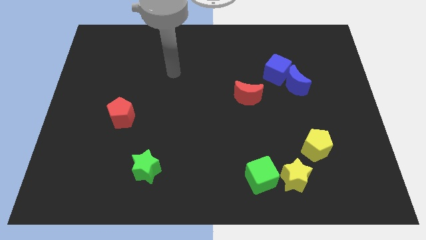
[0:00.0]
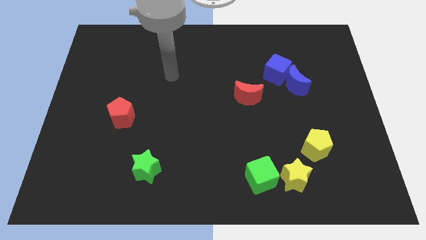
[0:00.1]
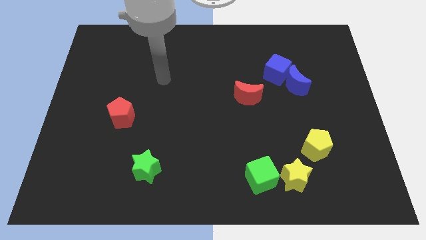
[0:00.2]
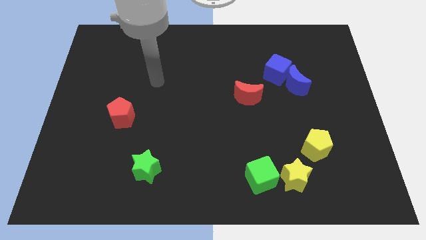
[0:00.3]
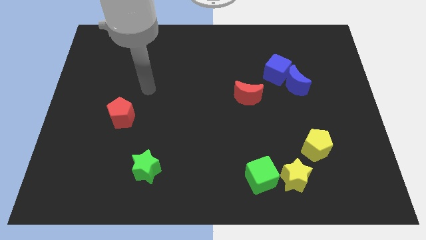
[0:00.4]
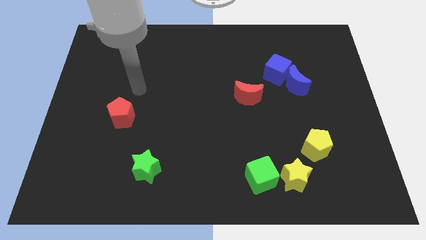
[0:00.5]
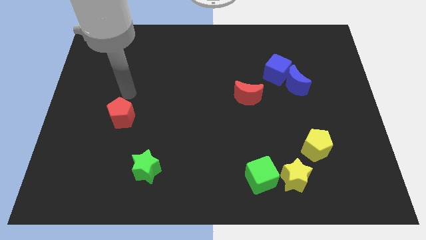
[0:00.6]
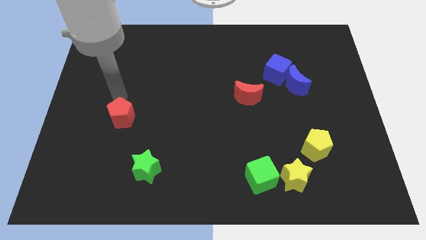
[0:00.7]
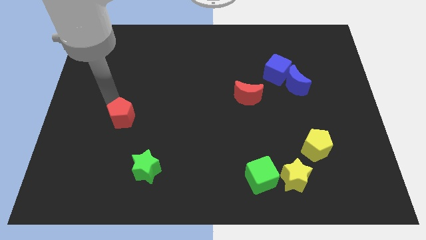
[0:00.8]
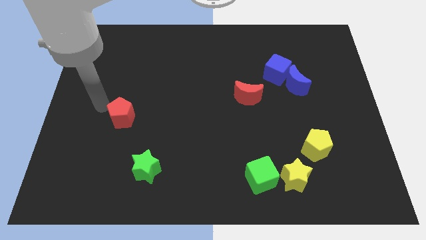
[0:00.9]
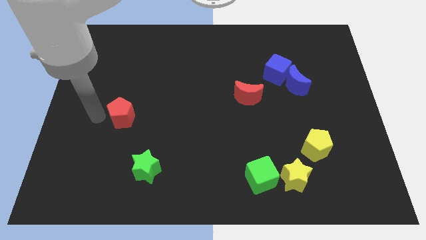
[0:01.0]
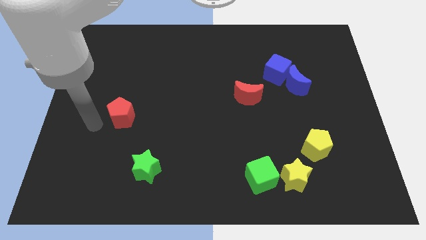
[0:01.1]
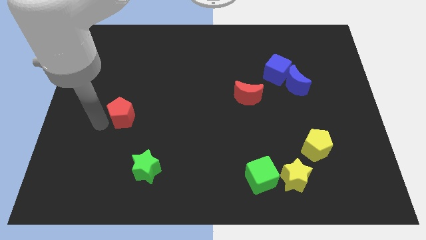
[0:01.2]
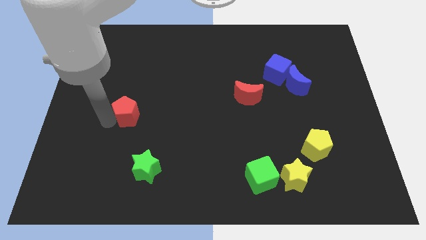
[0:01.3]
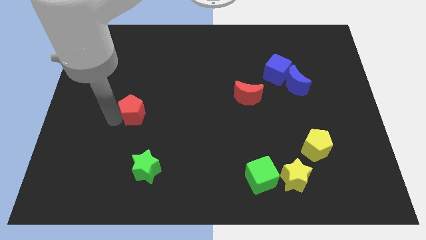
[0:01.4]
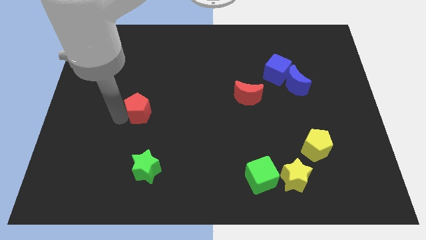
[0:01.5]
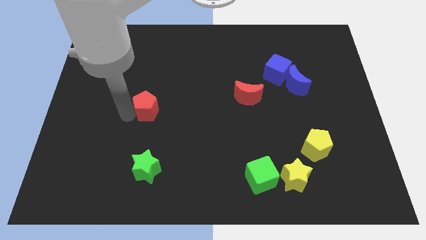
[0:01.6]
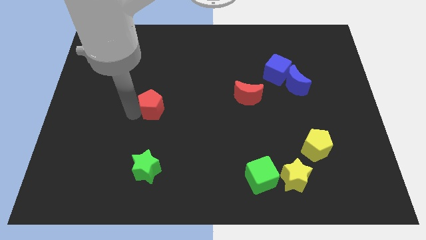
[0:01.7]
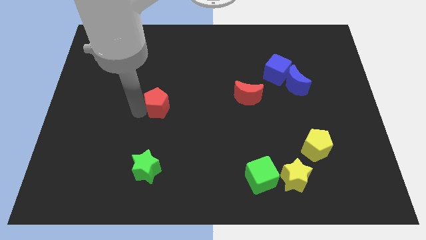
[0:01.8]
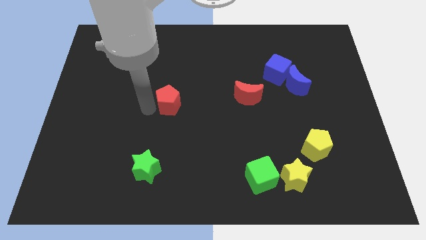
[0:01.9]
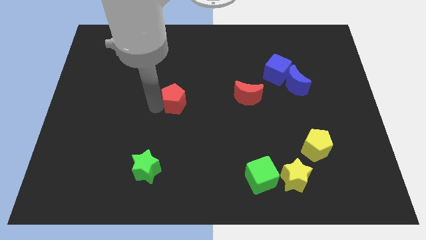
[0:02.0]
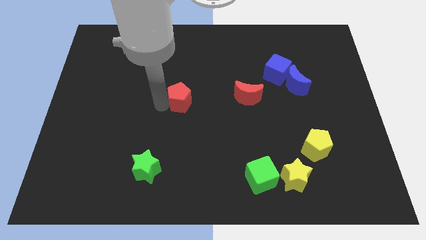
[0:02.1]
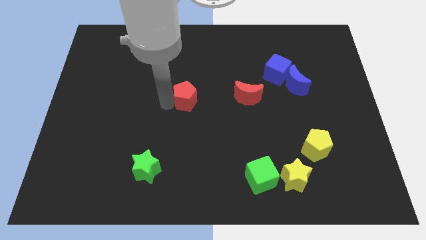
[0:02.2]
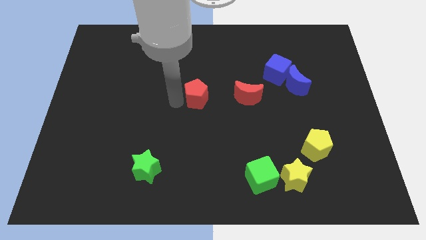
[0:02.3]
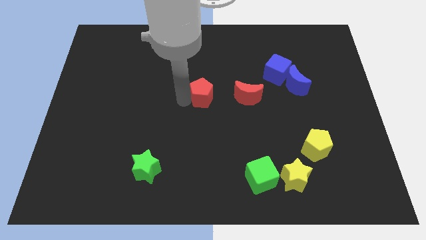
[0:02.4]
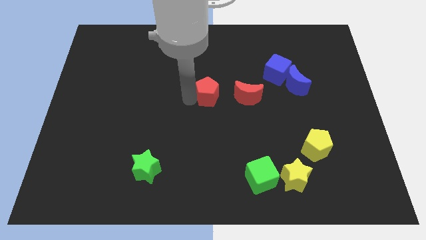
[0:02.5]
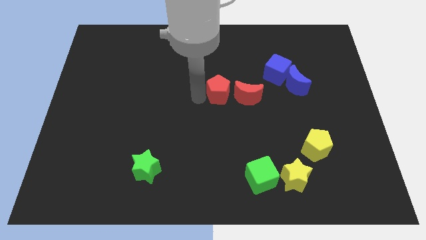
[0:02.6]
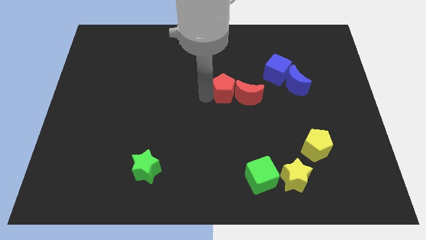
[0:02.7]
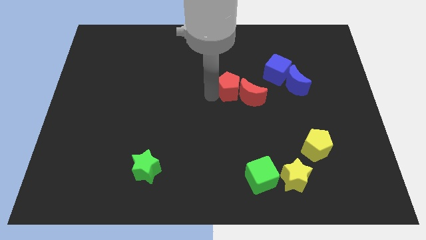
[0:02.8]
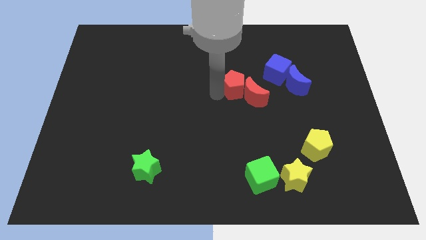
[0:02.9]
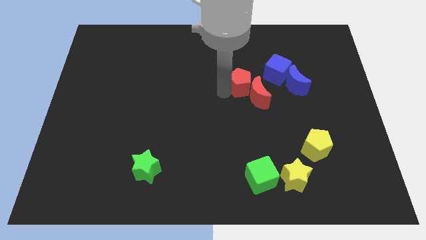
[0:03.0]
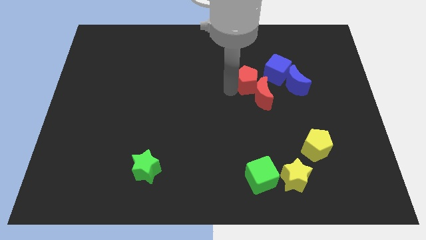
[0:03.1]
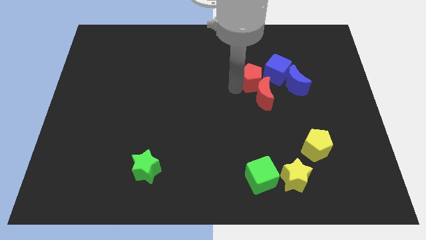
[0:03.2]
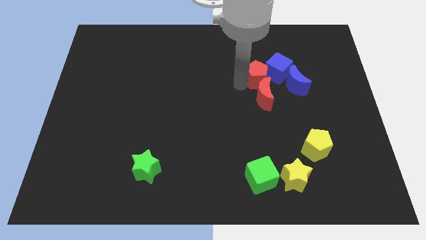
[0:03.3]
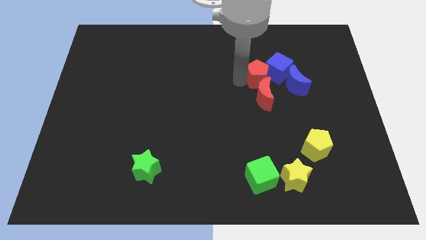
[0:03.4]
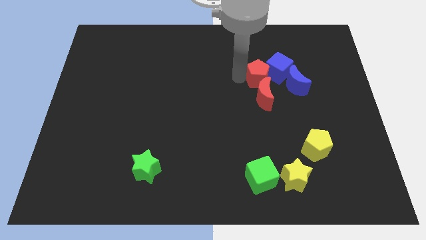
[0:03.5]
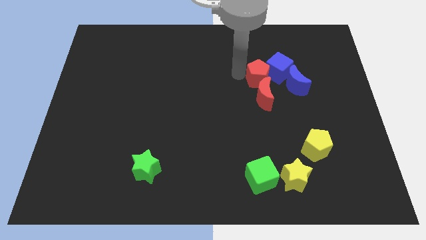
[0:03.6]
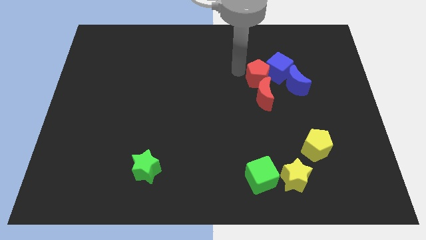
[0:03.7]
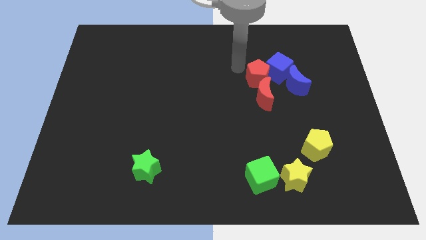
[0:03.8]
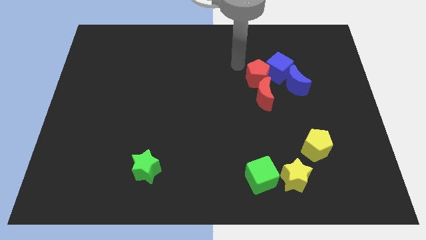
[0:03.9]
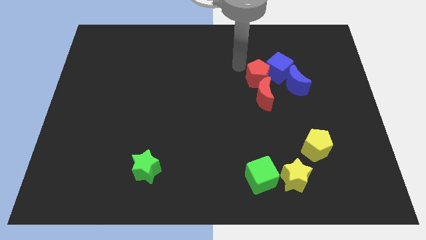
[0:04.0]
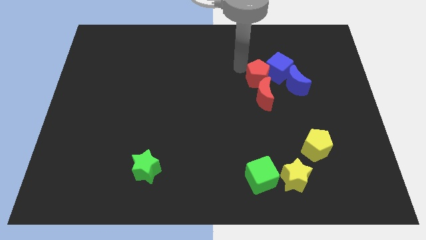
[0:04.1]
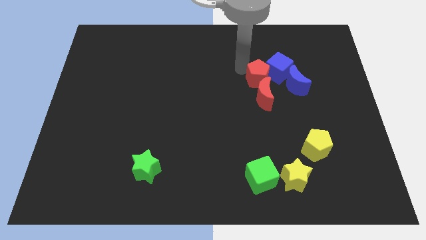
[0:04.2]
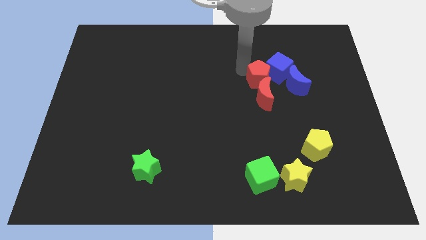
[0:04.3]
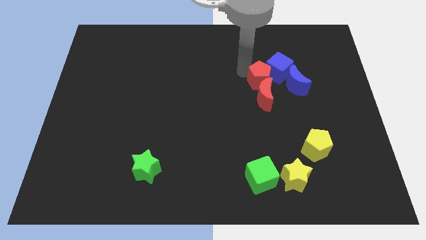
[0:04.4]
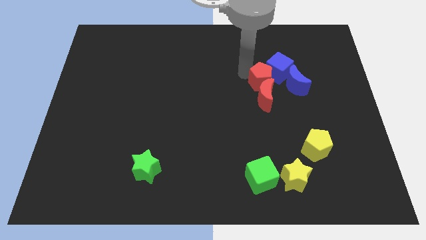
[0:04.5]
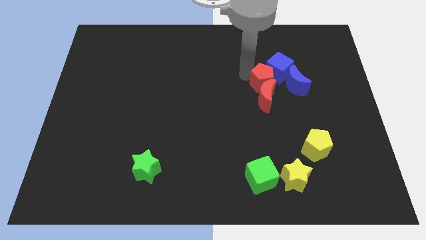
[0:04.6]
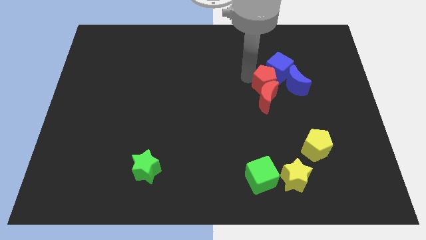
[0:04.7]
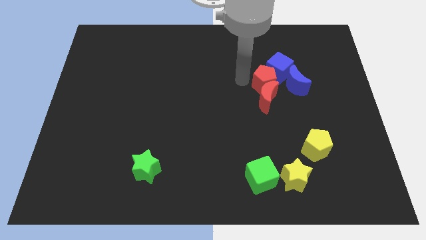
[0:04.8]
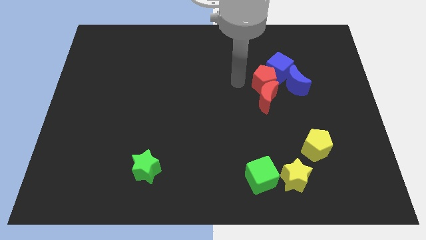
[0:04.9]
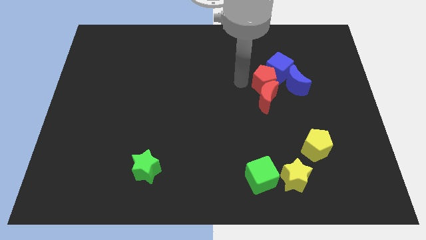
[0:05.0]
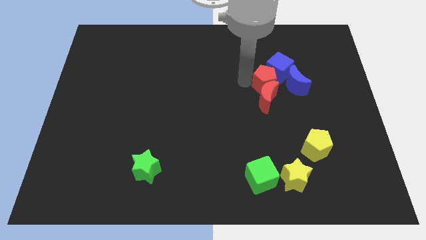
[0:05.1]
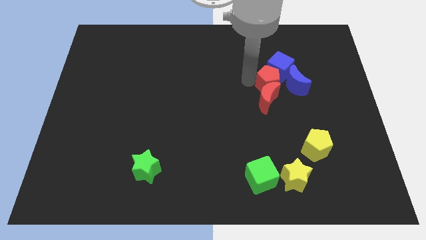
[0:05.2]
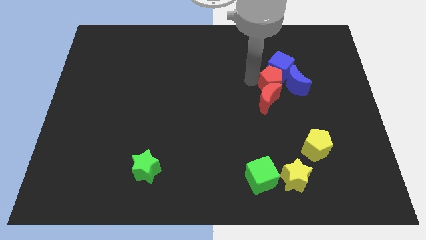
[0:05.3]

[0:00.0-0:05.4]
put the red pentagon to the blue moon

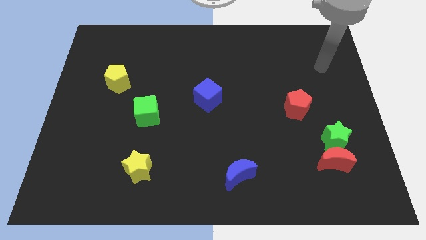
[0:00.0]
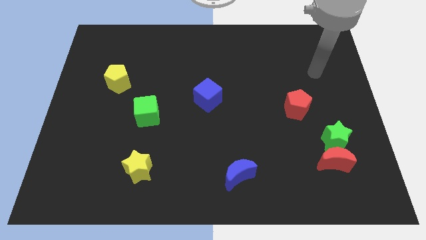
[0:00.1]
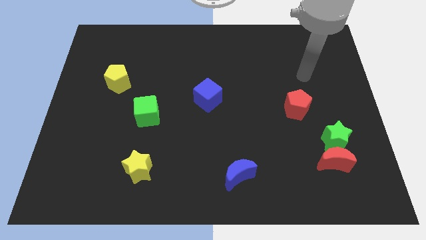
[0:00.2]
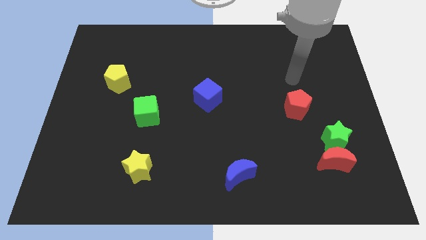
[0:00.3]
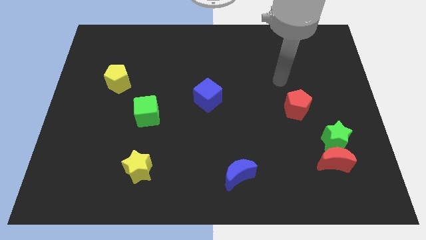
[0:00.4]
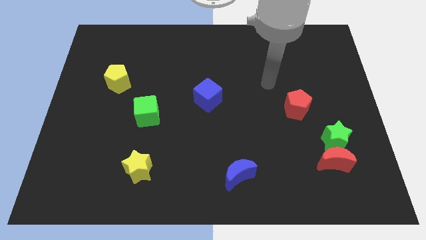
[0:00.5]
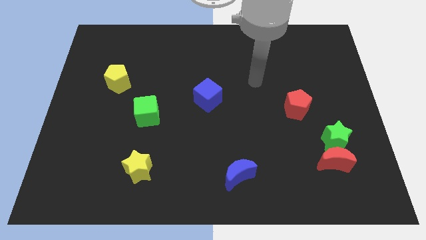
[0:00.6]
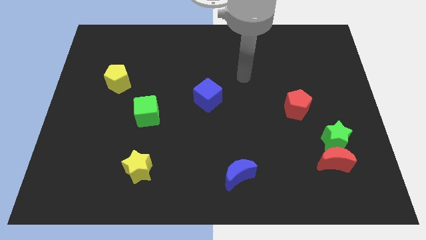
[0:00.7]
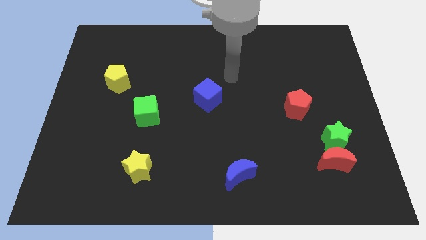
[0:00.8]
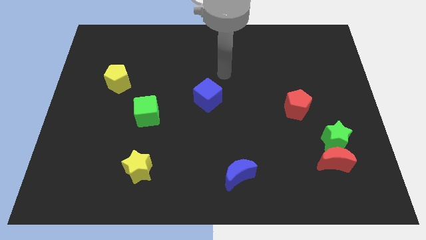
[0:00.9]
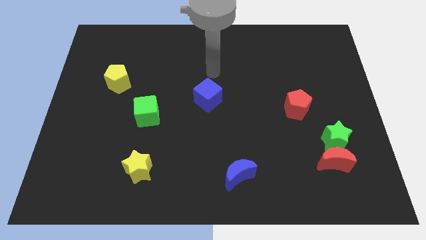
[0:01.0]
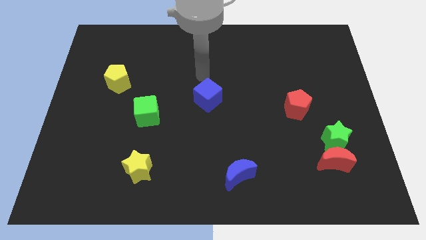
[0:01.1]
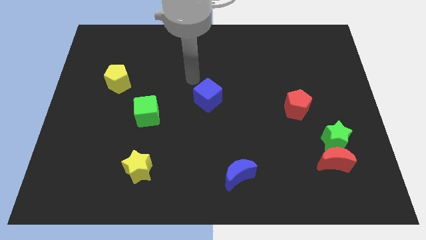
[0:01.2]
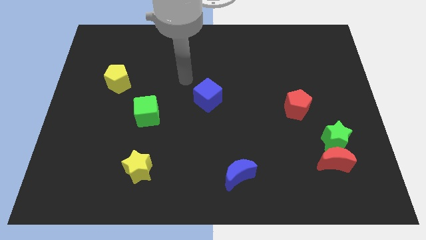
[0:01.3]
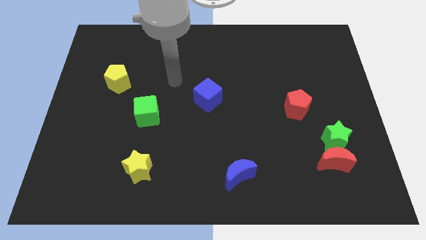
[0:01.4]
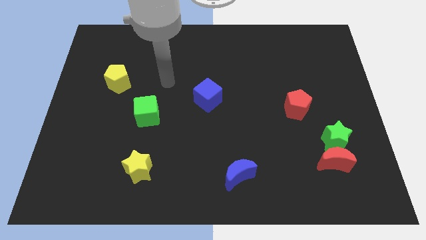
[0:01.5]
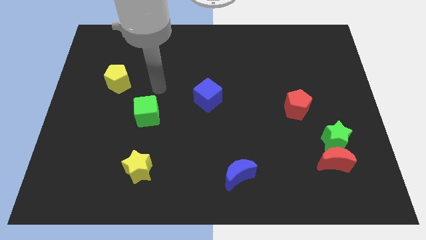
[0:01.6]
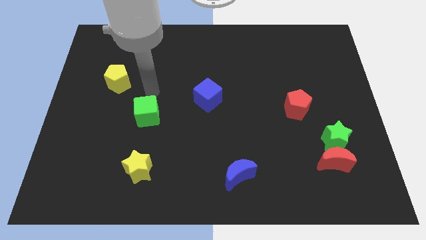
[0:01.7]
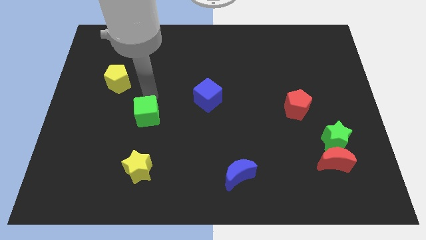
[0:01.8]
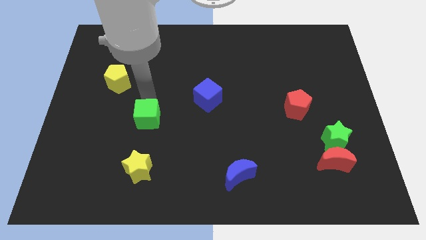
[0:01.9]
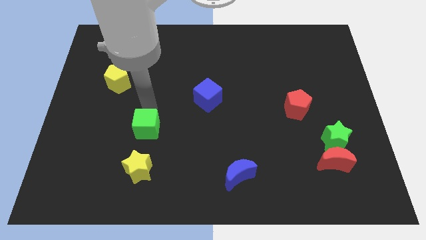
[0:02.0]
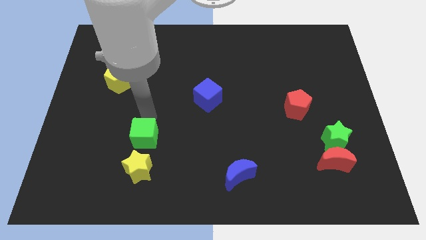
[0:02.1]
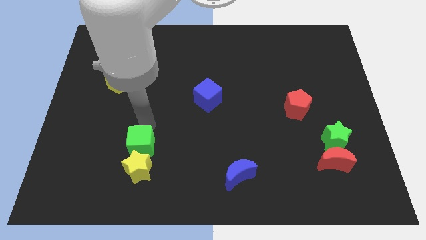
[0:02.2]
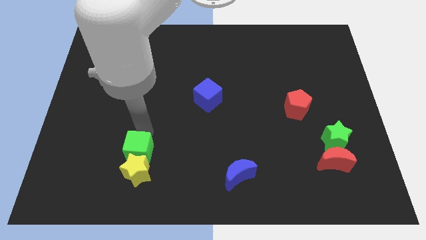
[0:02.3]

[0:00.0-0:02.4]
push the green cube to the yellow star
